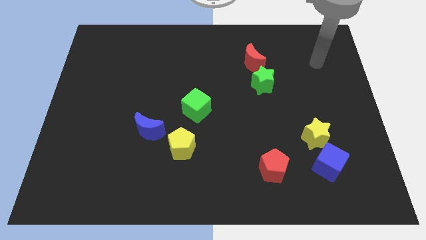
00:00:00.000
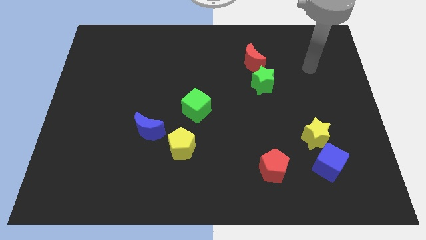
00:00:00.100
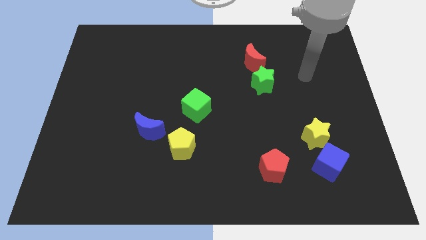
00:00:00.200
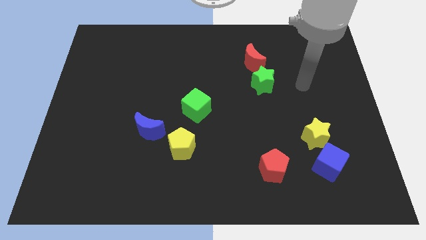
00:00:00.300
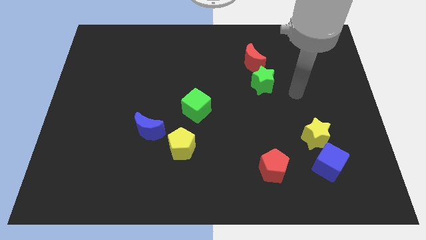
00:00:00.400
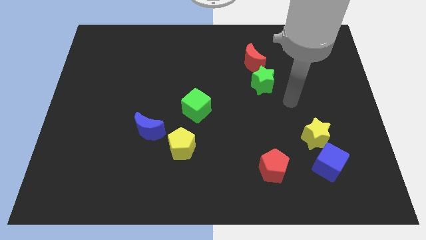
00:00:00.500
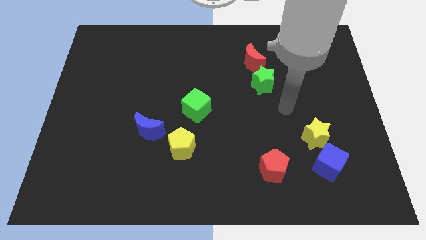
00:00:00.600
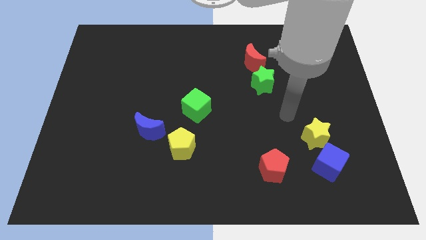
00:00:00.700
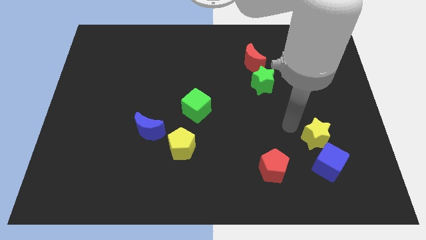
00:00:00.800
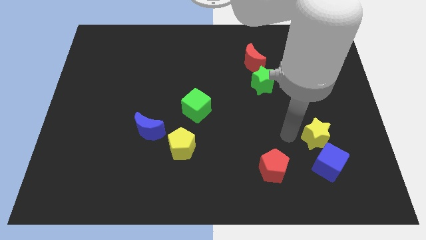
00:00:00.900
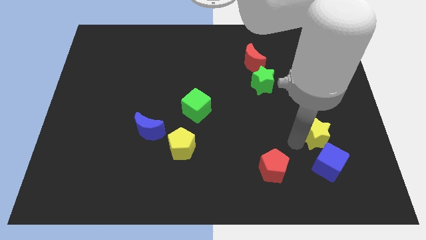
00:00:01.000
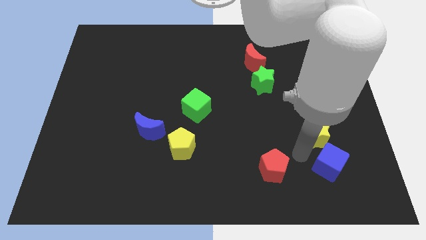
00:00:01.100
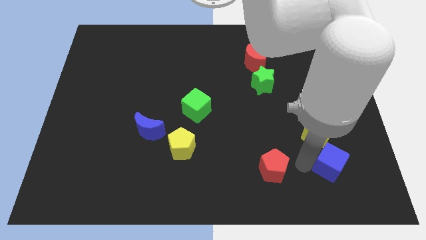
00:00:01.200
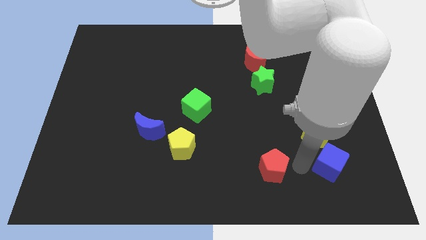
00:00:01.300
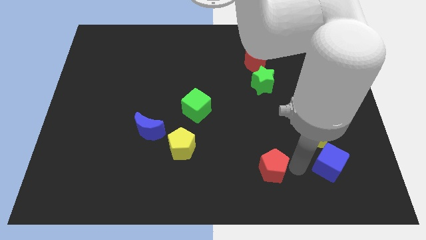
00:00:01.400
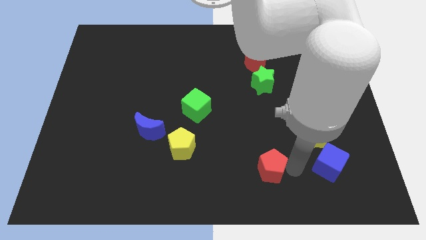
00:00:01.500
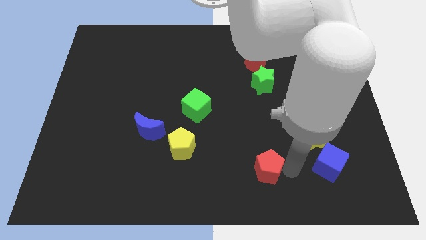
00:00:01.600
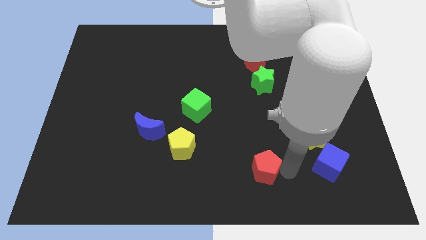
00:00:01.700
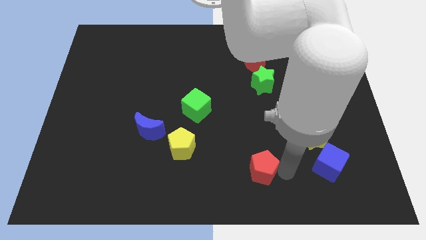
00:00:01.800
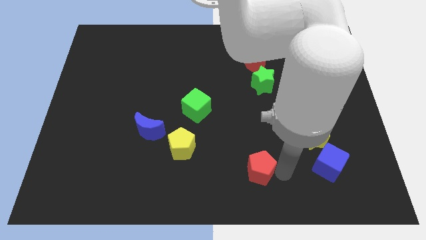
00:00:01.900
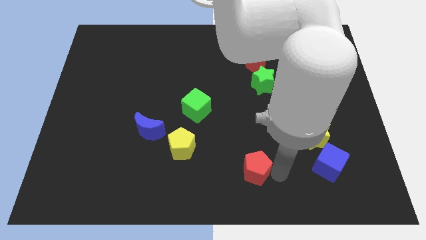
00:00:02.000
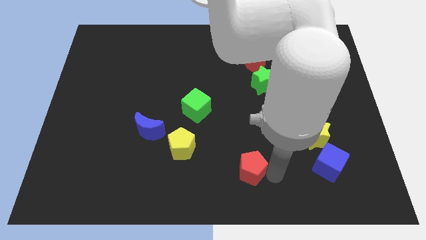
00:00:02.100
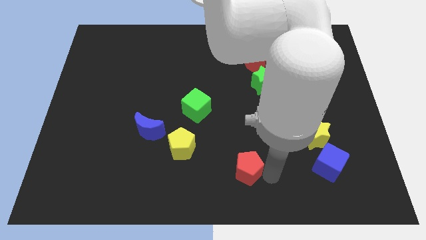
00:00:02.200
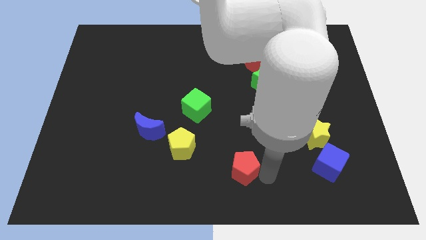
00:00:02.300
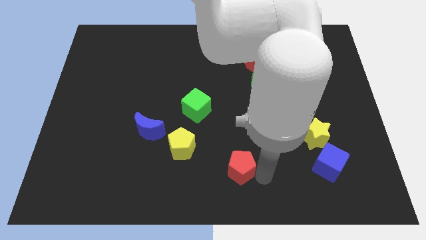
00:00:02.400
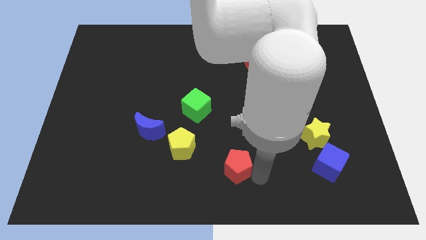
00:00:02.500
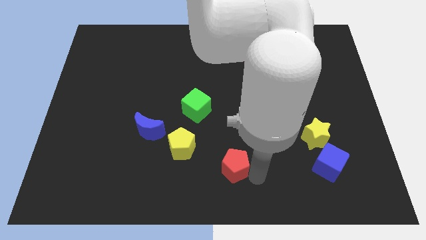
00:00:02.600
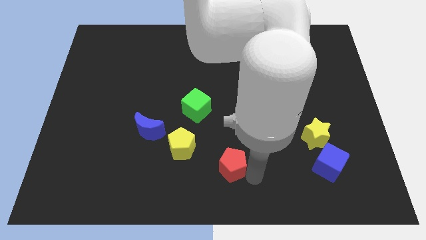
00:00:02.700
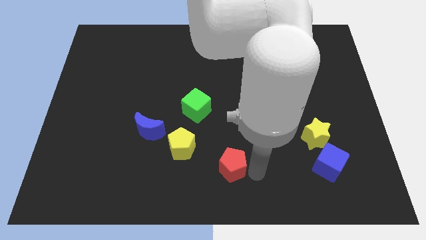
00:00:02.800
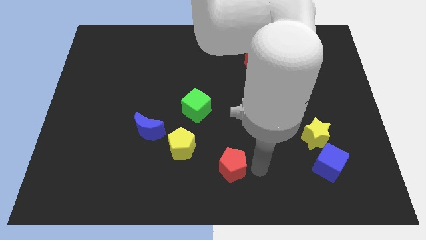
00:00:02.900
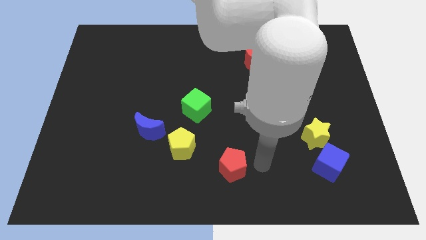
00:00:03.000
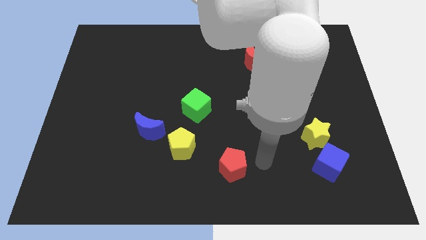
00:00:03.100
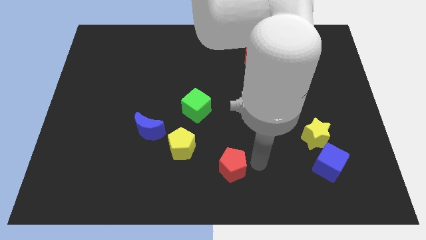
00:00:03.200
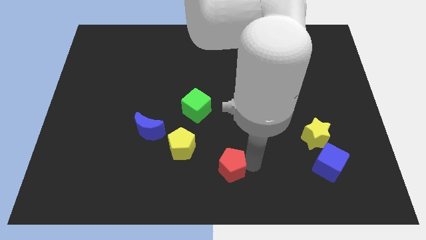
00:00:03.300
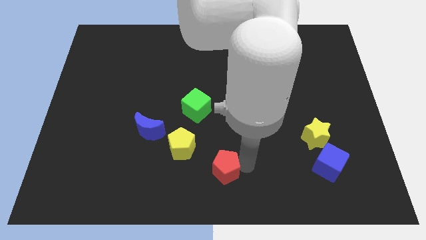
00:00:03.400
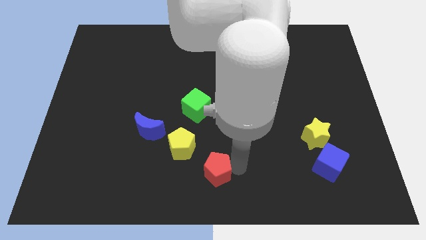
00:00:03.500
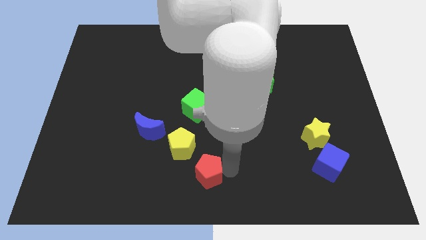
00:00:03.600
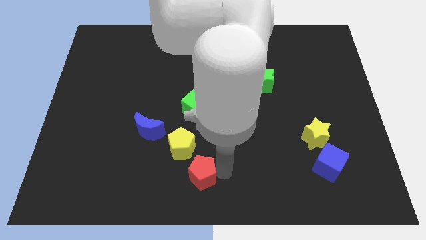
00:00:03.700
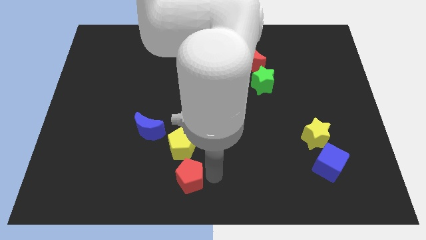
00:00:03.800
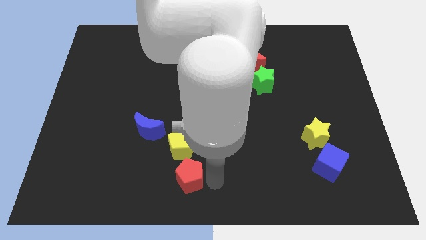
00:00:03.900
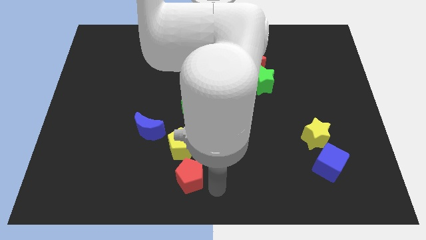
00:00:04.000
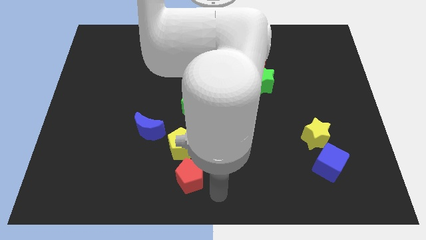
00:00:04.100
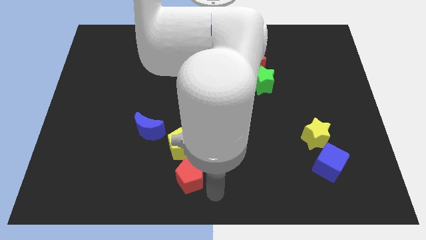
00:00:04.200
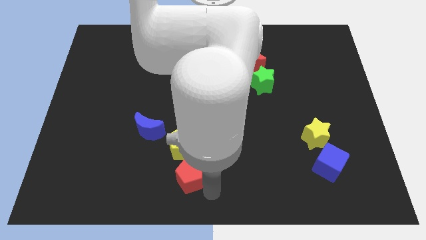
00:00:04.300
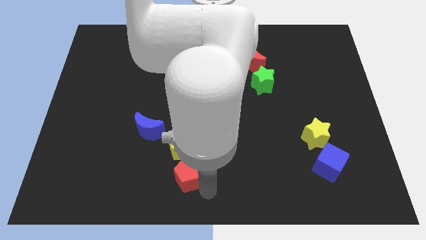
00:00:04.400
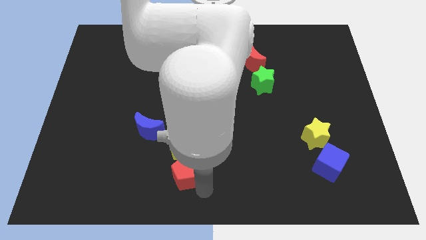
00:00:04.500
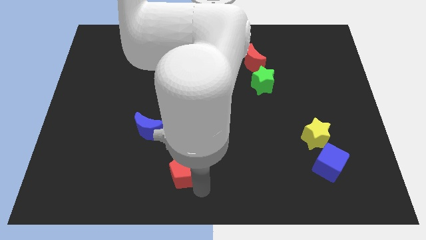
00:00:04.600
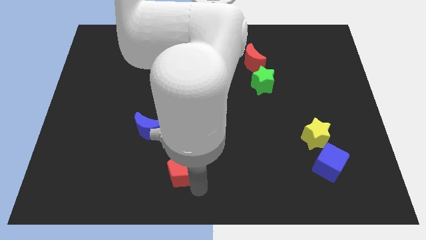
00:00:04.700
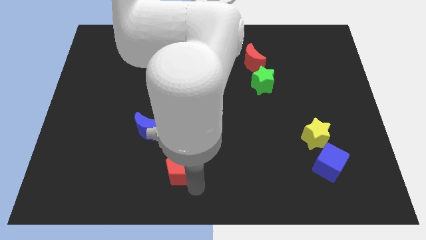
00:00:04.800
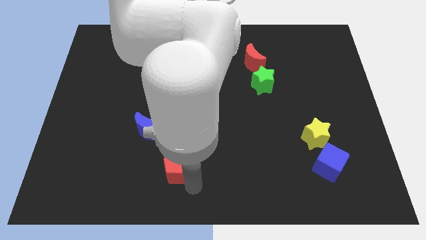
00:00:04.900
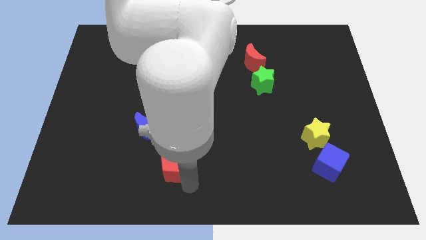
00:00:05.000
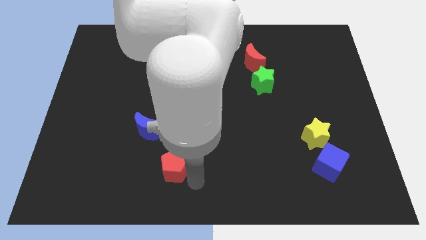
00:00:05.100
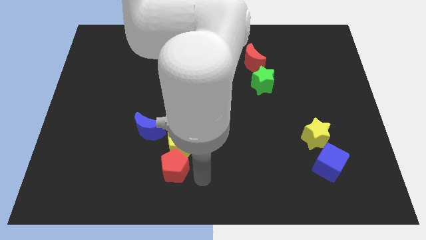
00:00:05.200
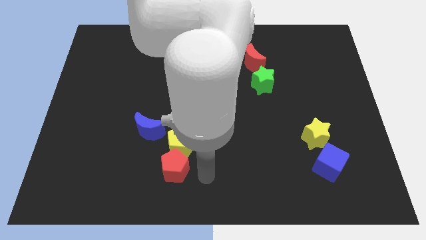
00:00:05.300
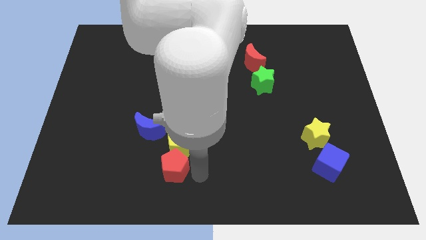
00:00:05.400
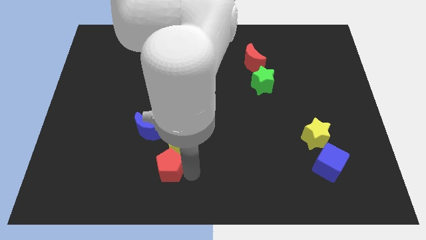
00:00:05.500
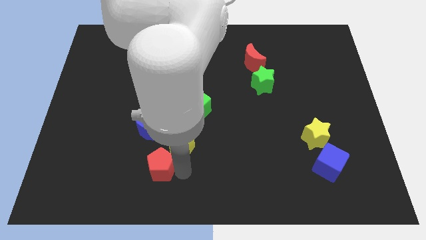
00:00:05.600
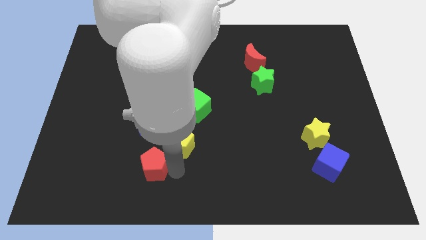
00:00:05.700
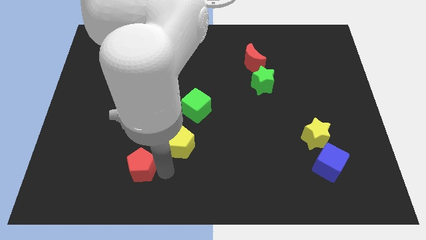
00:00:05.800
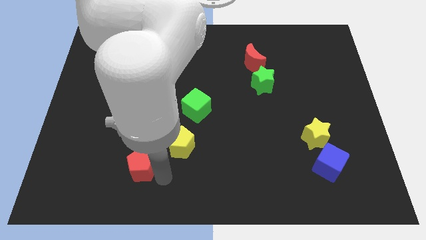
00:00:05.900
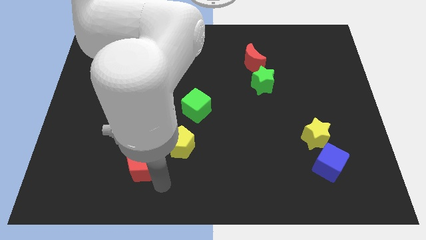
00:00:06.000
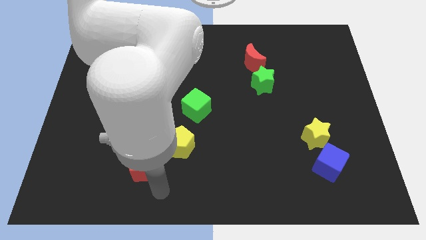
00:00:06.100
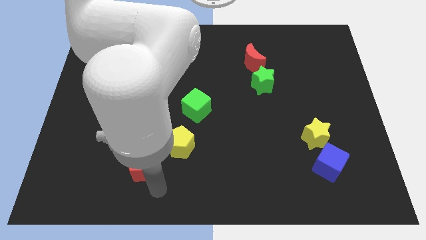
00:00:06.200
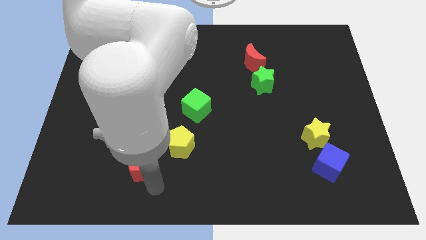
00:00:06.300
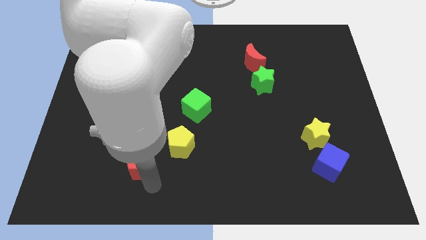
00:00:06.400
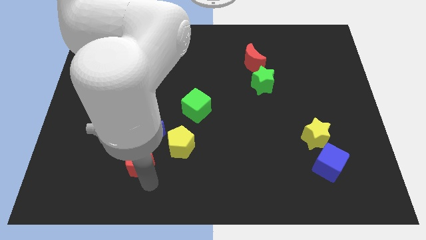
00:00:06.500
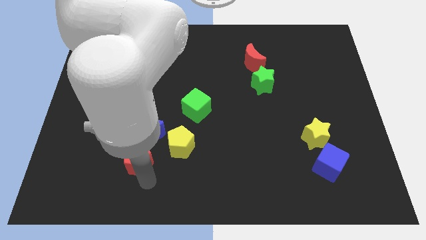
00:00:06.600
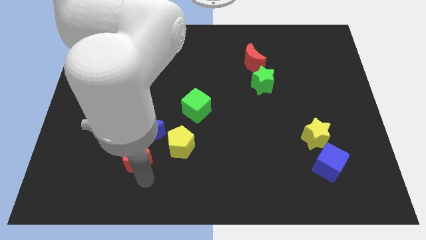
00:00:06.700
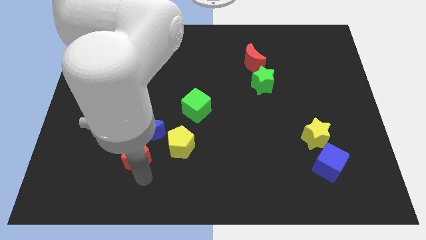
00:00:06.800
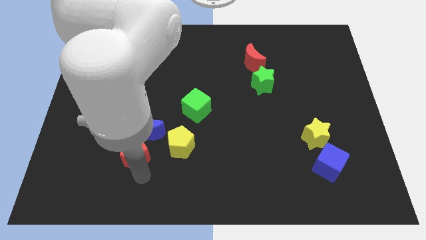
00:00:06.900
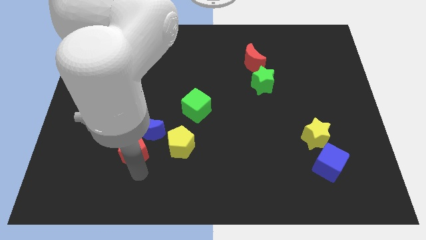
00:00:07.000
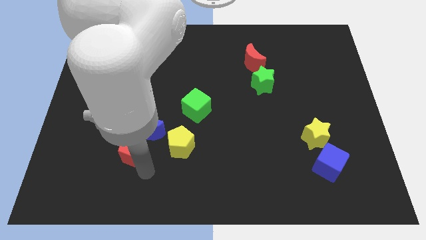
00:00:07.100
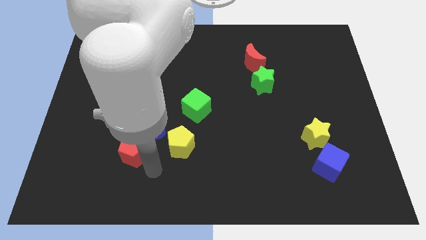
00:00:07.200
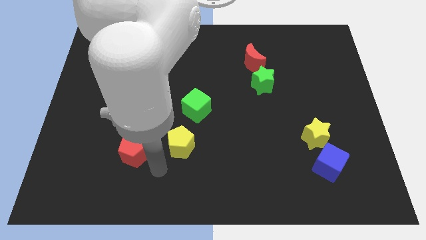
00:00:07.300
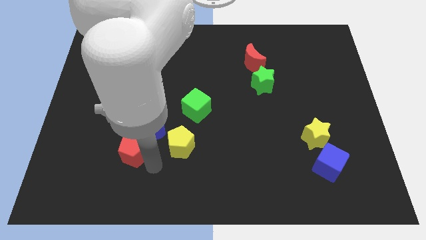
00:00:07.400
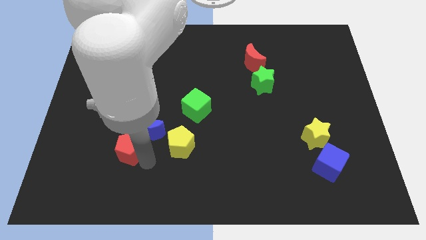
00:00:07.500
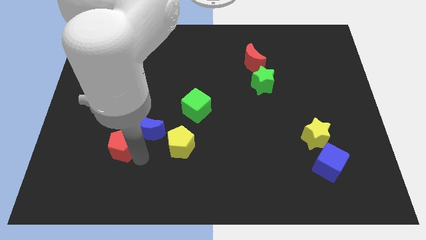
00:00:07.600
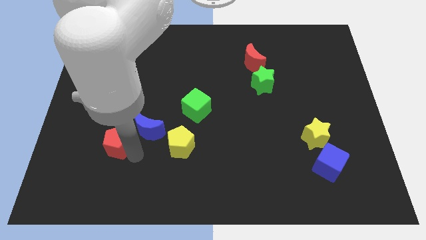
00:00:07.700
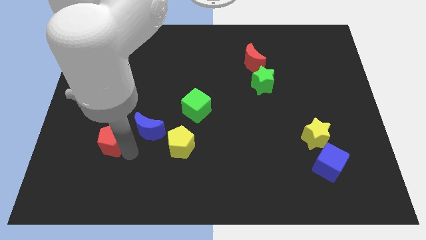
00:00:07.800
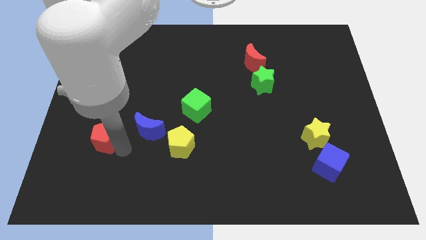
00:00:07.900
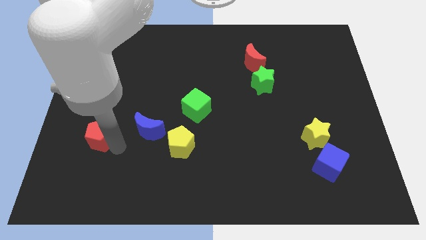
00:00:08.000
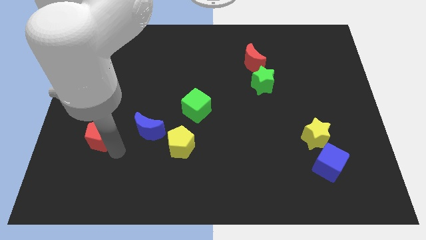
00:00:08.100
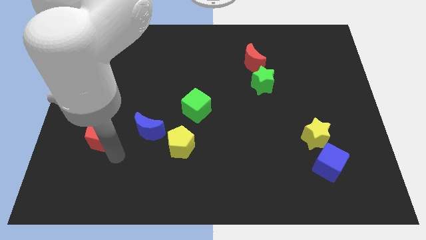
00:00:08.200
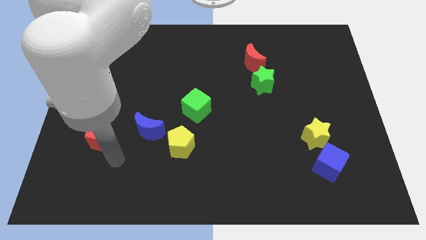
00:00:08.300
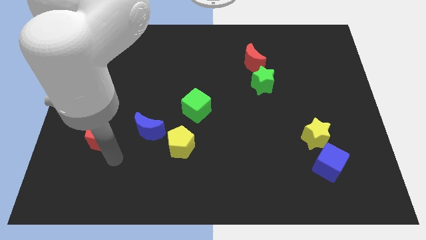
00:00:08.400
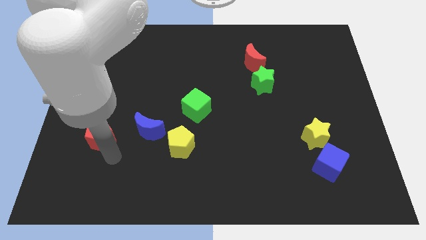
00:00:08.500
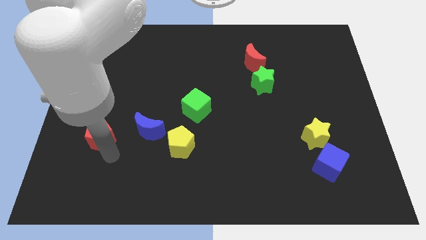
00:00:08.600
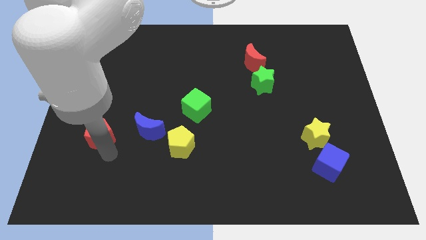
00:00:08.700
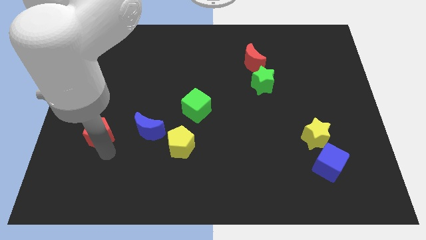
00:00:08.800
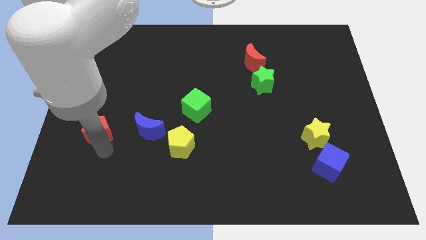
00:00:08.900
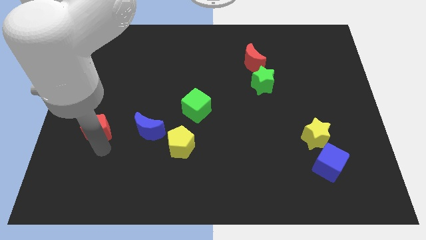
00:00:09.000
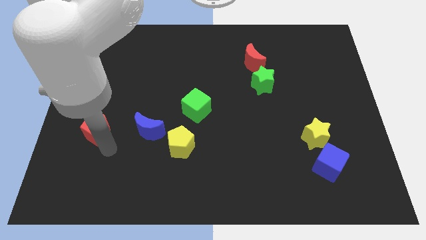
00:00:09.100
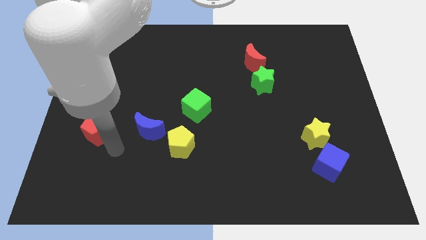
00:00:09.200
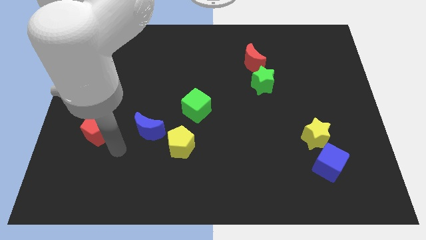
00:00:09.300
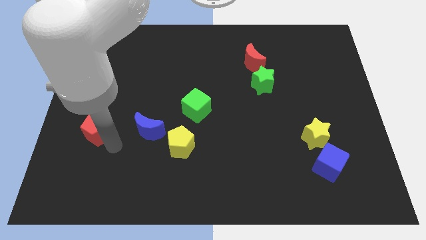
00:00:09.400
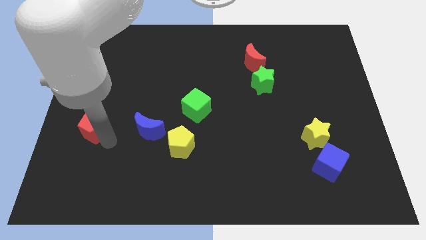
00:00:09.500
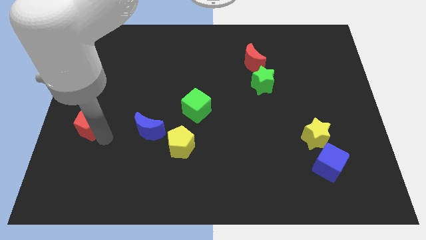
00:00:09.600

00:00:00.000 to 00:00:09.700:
move the red pentagon to the left side of the board
